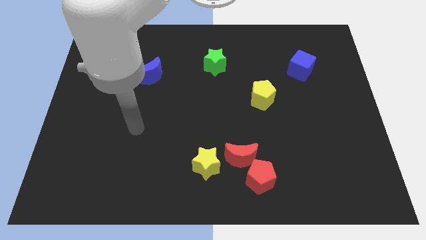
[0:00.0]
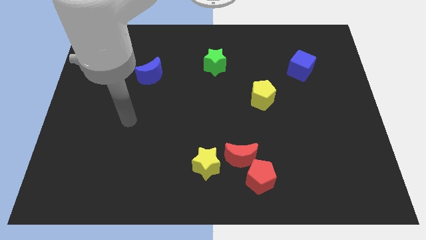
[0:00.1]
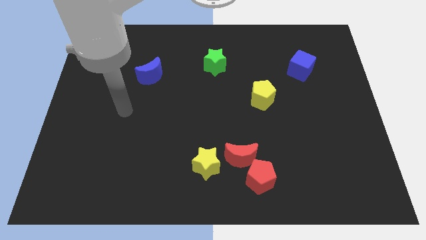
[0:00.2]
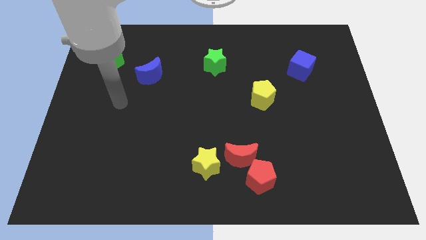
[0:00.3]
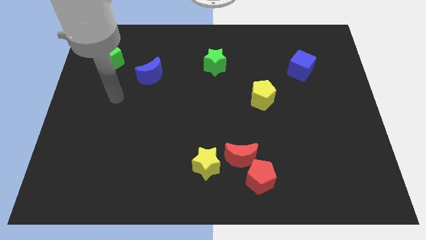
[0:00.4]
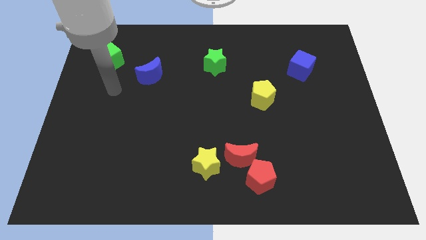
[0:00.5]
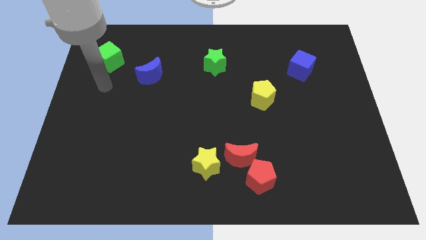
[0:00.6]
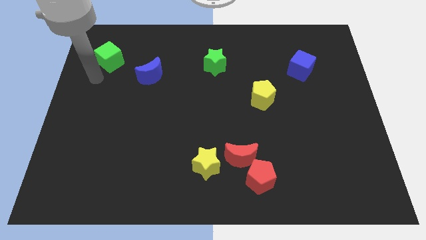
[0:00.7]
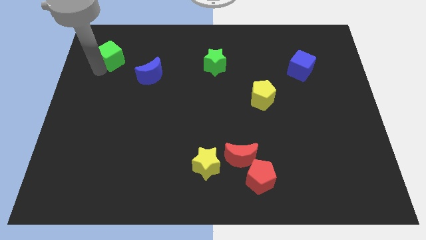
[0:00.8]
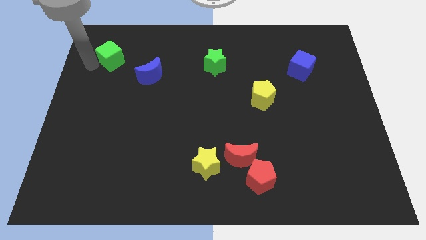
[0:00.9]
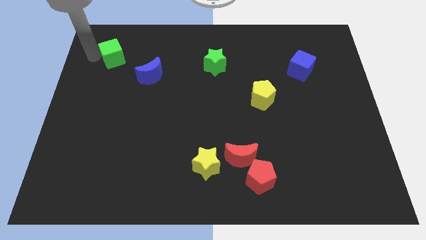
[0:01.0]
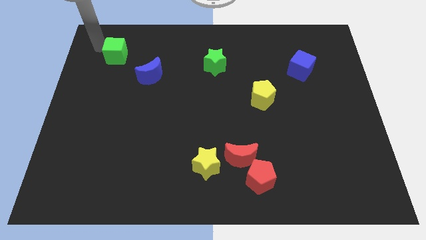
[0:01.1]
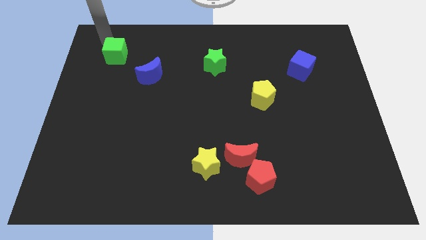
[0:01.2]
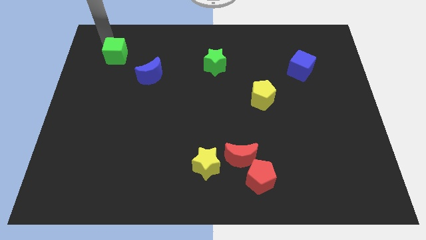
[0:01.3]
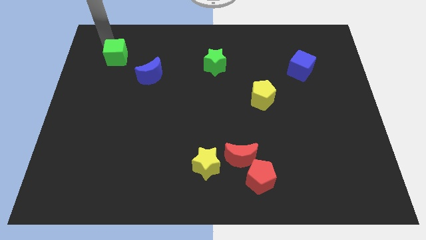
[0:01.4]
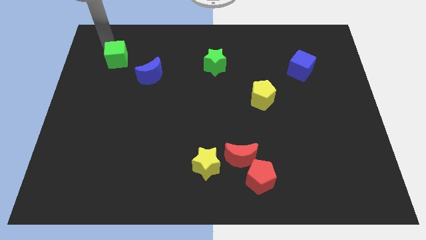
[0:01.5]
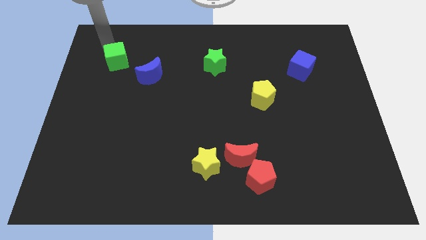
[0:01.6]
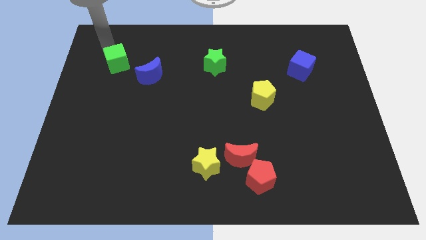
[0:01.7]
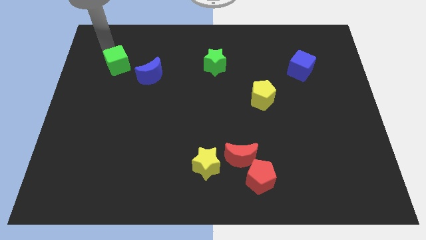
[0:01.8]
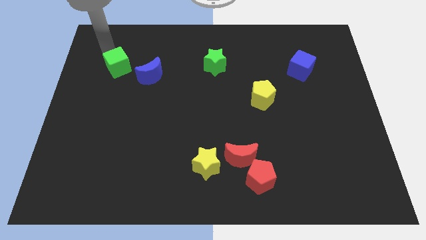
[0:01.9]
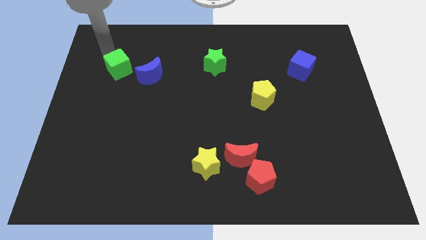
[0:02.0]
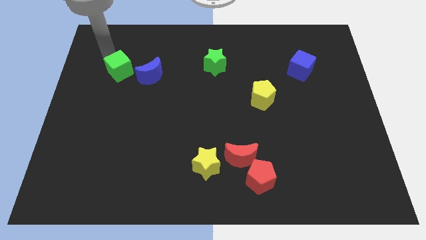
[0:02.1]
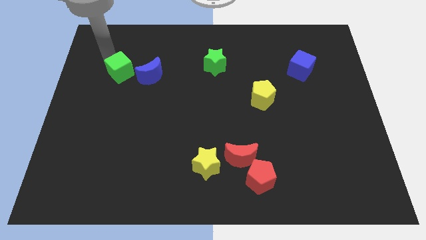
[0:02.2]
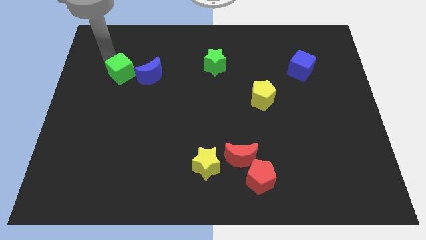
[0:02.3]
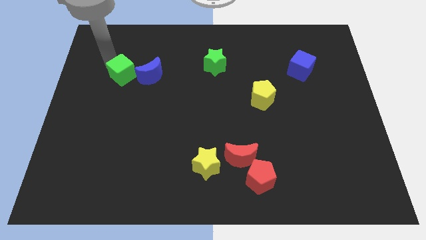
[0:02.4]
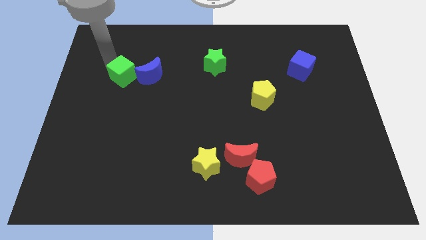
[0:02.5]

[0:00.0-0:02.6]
push the green cube diagonally down and to the right somewhat

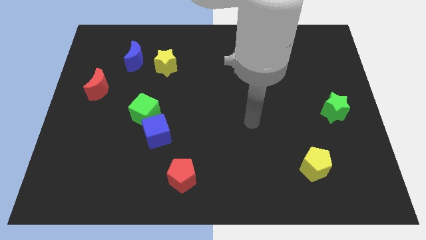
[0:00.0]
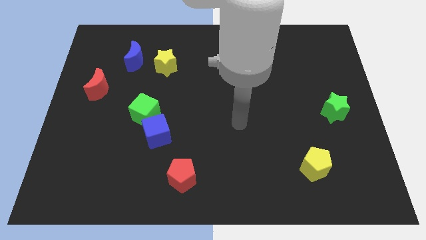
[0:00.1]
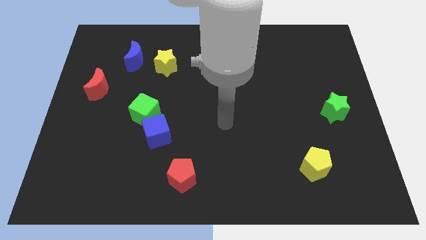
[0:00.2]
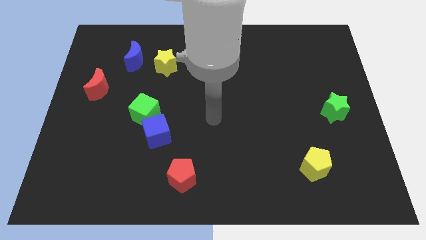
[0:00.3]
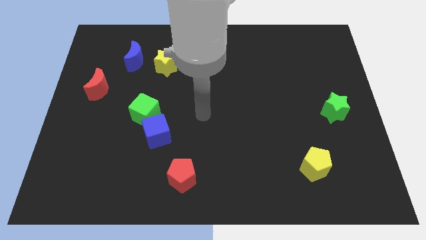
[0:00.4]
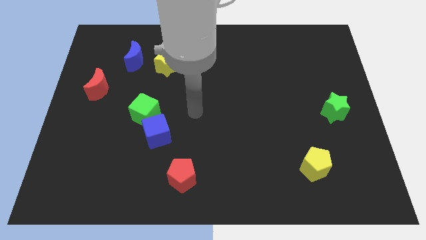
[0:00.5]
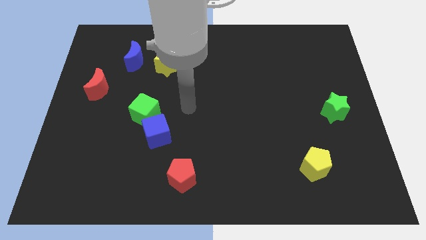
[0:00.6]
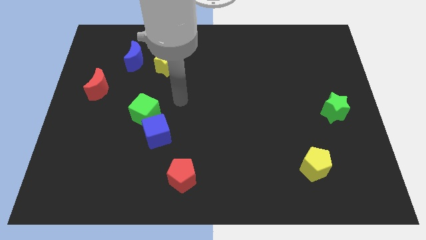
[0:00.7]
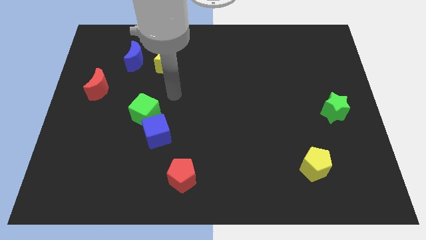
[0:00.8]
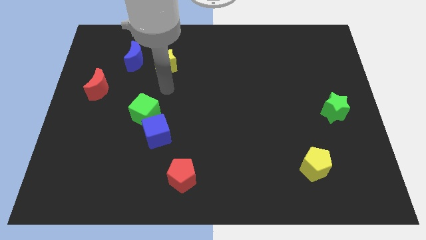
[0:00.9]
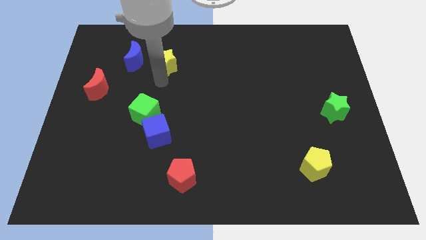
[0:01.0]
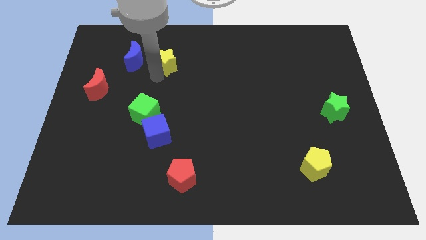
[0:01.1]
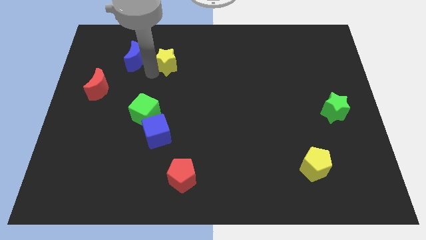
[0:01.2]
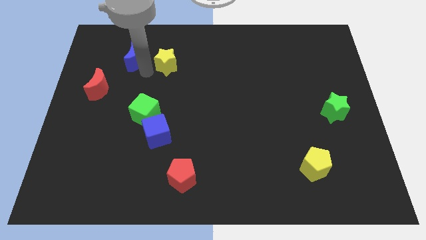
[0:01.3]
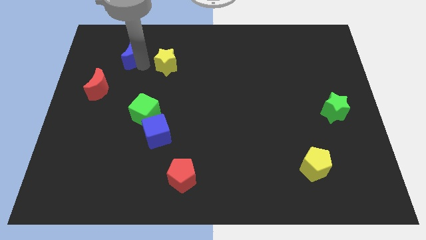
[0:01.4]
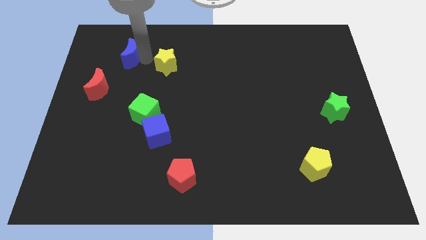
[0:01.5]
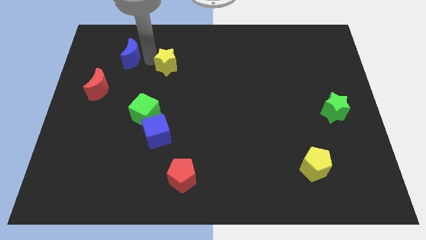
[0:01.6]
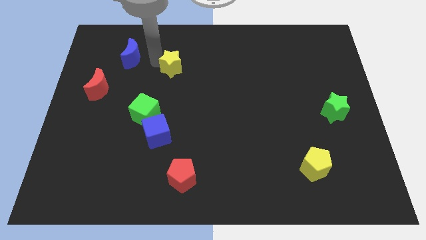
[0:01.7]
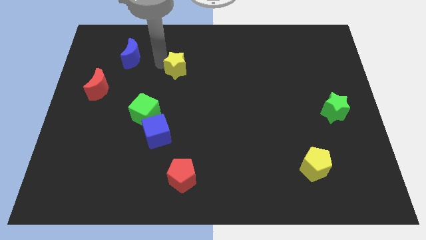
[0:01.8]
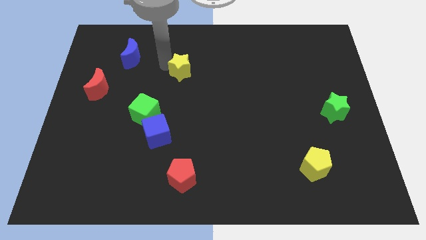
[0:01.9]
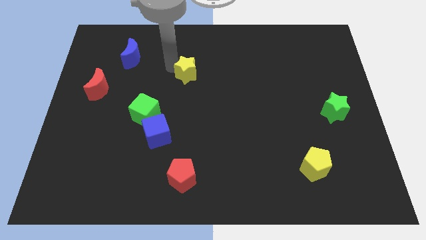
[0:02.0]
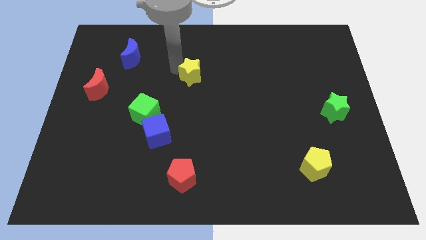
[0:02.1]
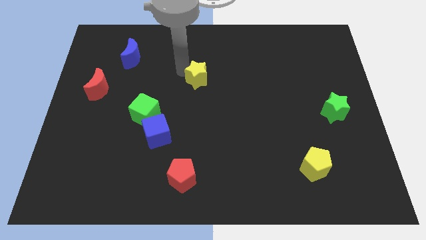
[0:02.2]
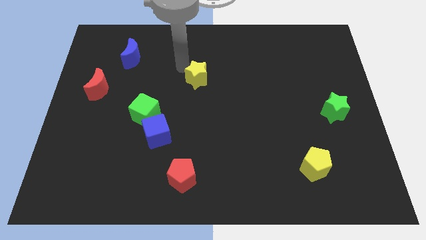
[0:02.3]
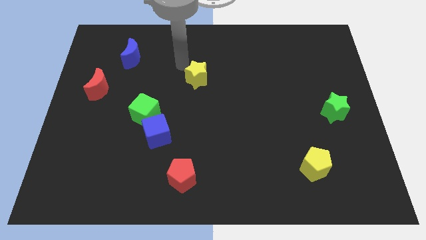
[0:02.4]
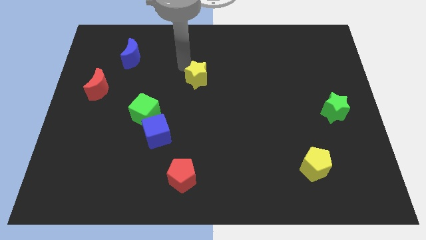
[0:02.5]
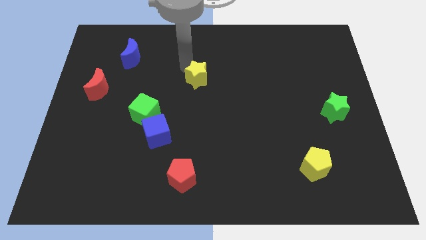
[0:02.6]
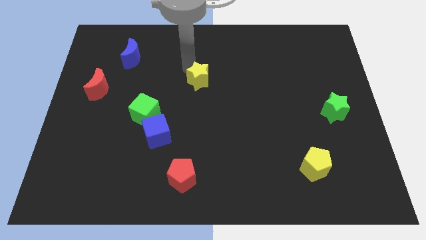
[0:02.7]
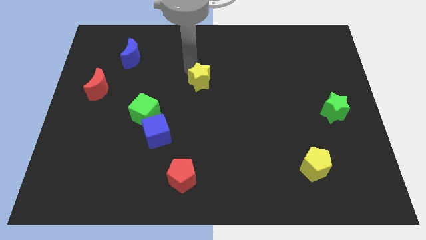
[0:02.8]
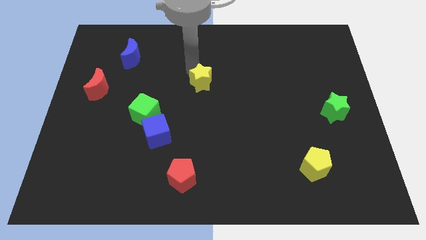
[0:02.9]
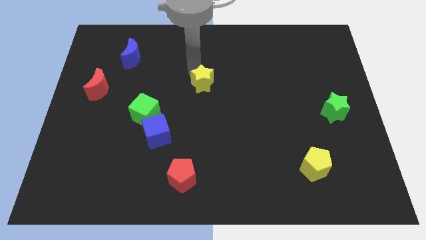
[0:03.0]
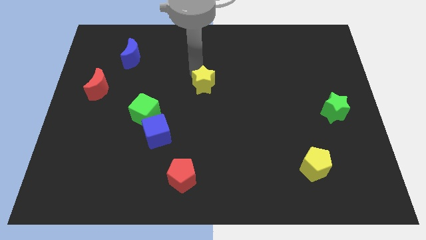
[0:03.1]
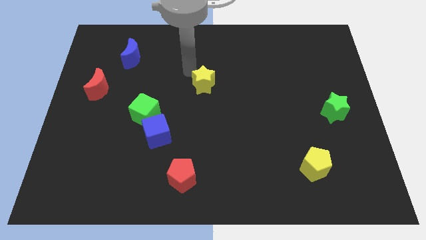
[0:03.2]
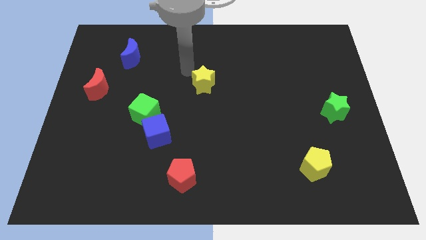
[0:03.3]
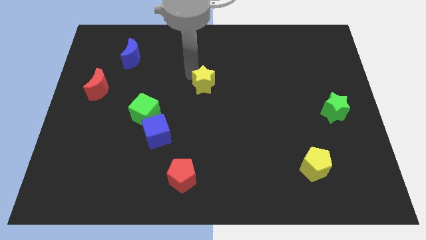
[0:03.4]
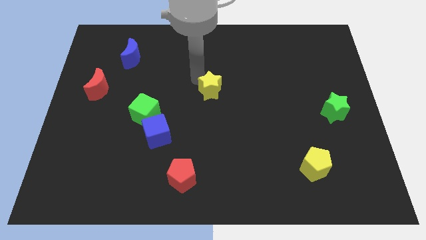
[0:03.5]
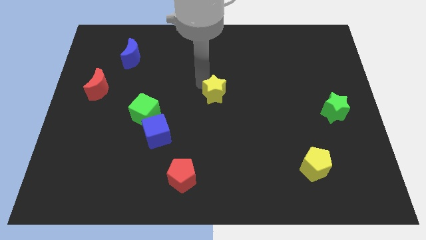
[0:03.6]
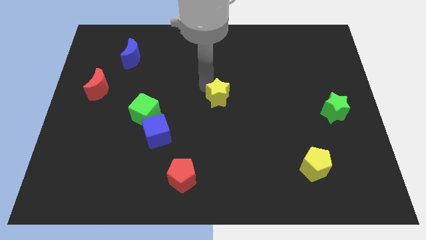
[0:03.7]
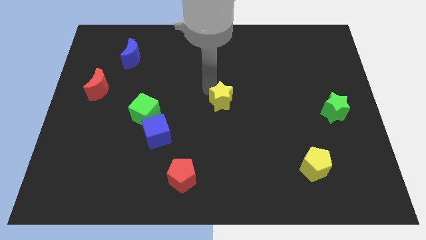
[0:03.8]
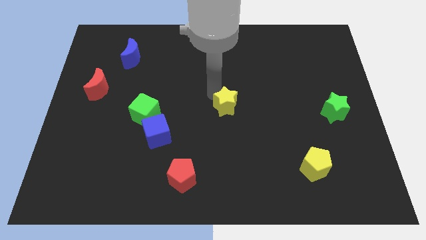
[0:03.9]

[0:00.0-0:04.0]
push the yellow star downwards and right

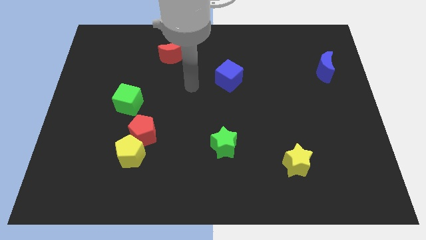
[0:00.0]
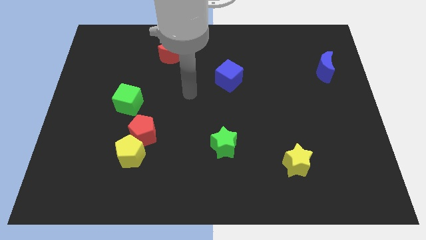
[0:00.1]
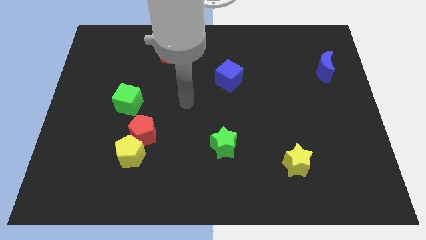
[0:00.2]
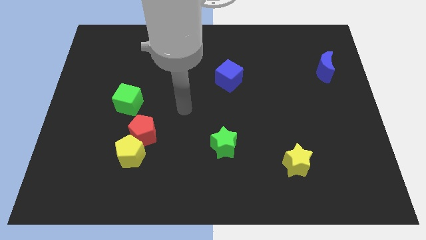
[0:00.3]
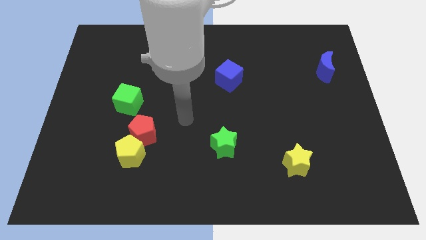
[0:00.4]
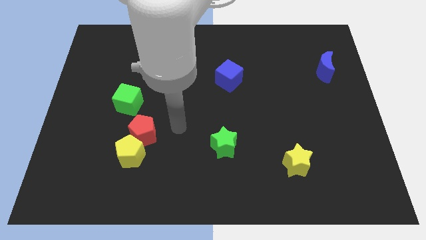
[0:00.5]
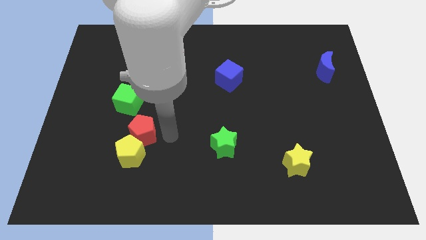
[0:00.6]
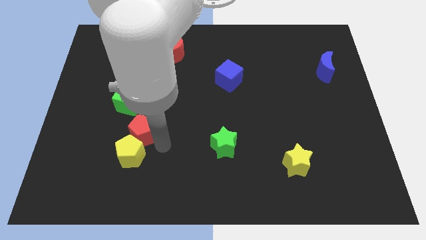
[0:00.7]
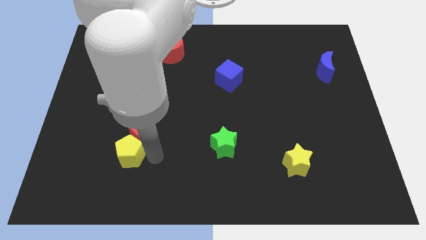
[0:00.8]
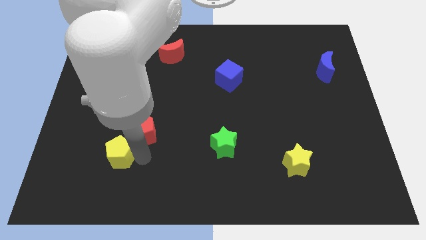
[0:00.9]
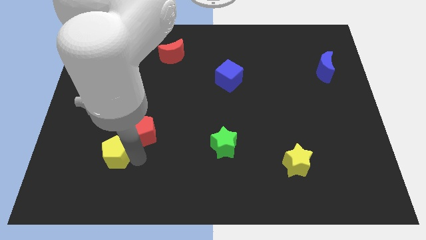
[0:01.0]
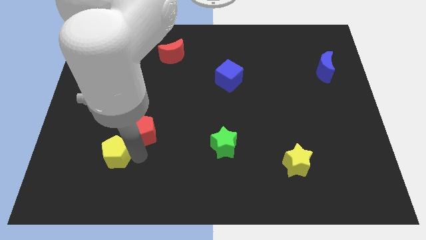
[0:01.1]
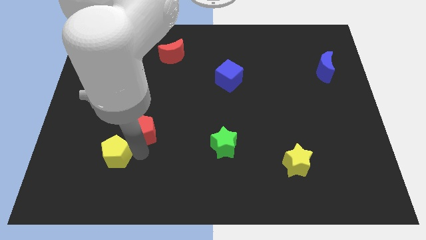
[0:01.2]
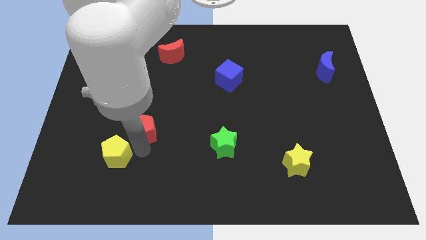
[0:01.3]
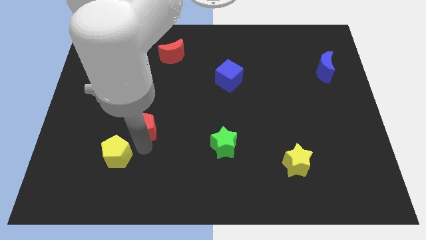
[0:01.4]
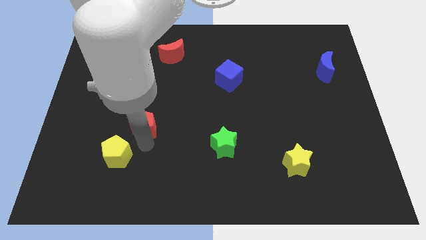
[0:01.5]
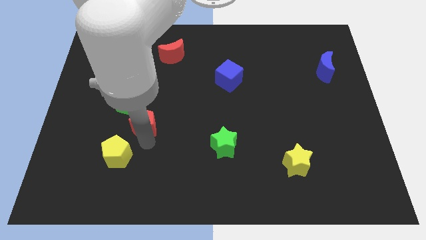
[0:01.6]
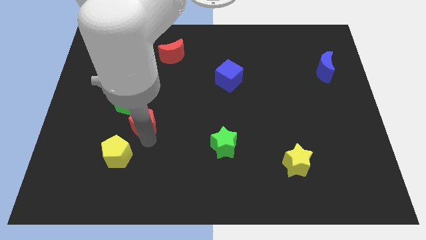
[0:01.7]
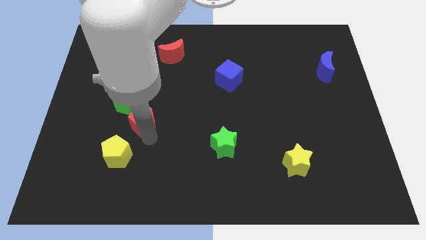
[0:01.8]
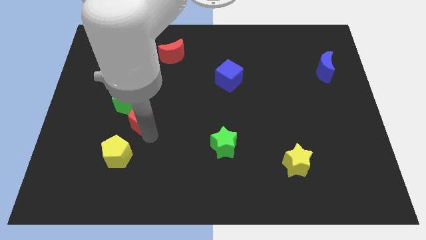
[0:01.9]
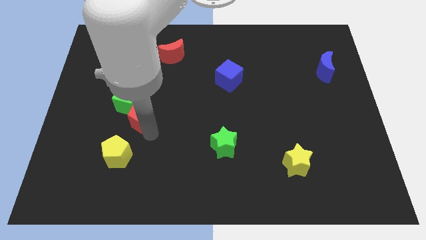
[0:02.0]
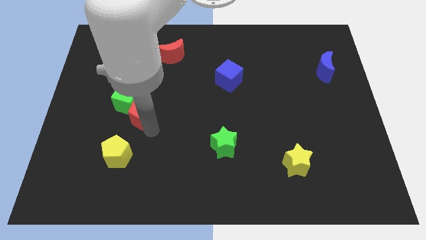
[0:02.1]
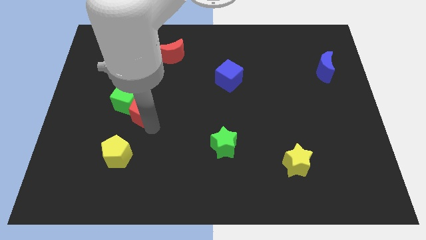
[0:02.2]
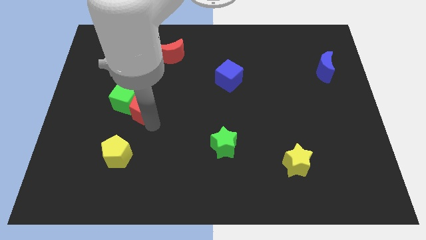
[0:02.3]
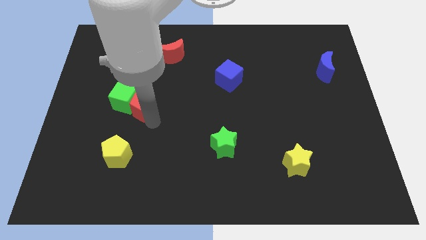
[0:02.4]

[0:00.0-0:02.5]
push the red pentagon up a little
